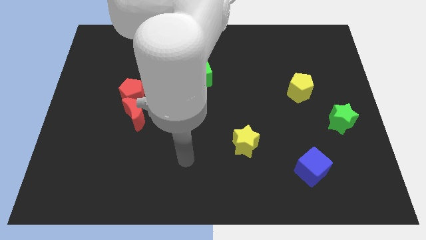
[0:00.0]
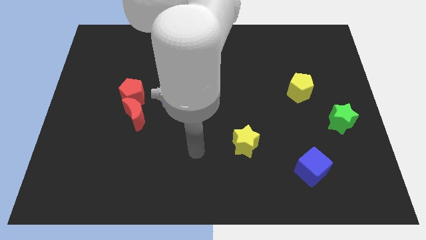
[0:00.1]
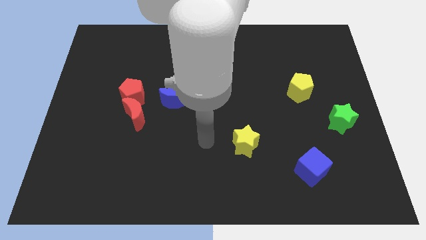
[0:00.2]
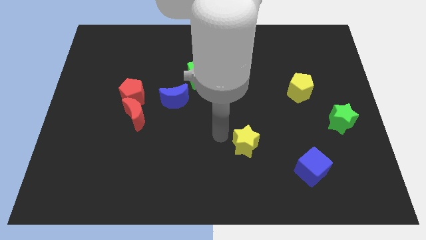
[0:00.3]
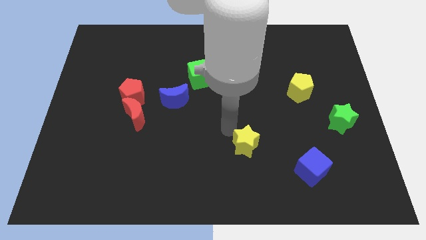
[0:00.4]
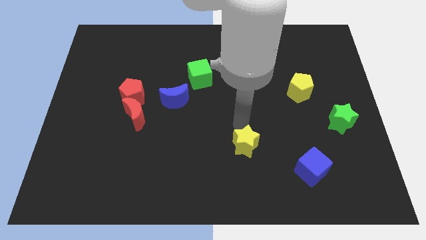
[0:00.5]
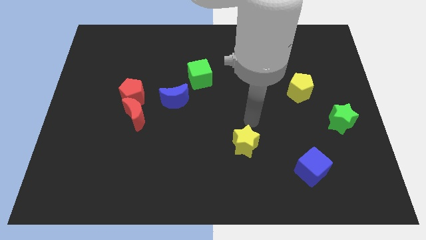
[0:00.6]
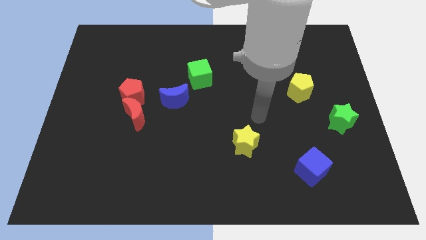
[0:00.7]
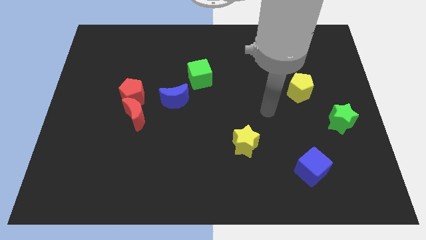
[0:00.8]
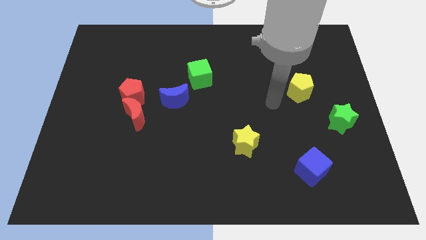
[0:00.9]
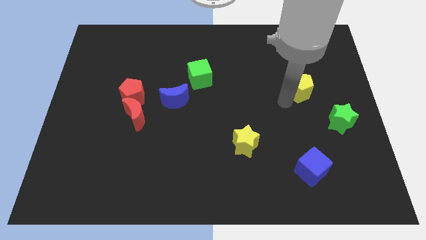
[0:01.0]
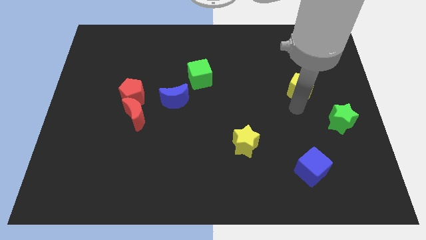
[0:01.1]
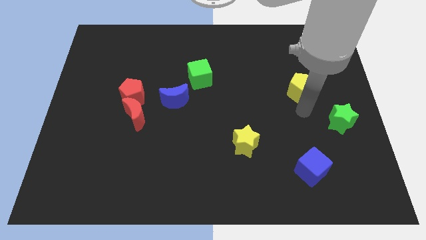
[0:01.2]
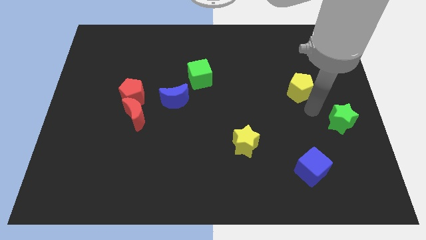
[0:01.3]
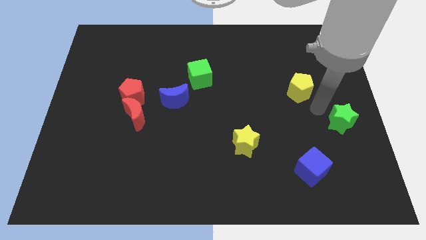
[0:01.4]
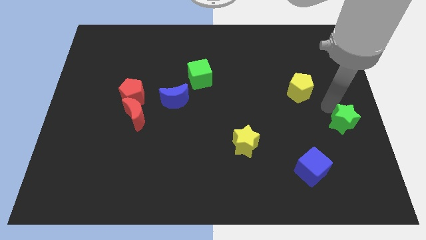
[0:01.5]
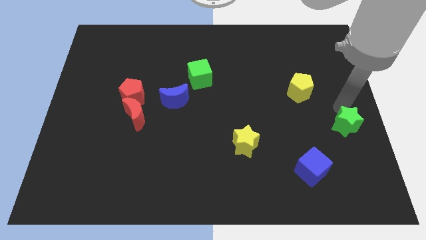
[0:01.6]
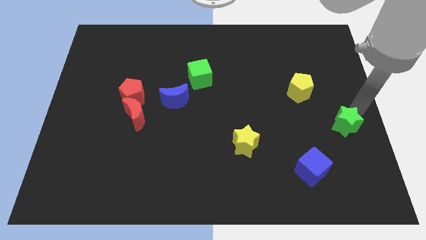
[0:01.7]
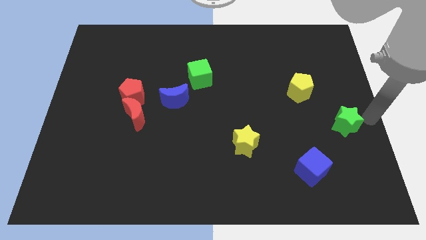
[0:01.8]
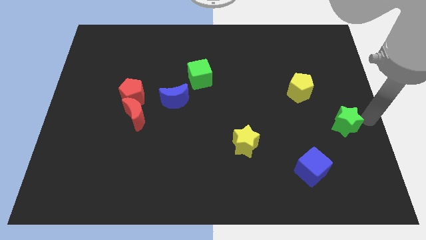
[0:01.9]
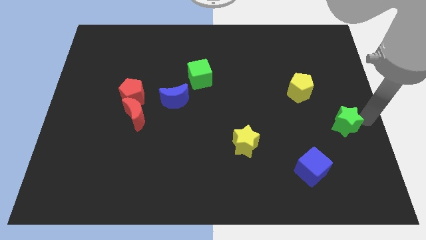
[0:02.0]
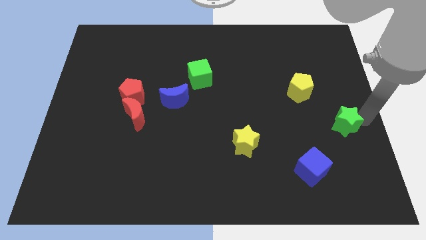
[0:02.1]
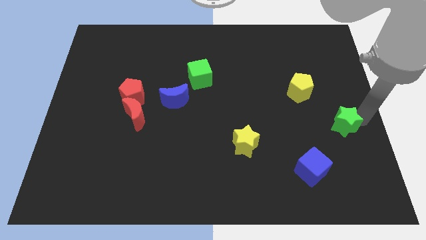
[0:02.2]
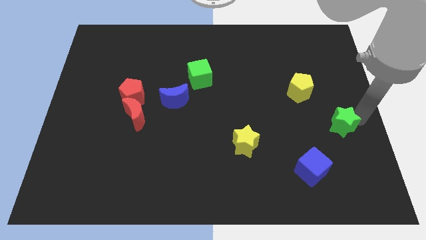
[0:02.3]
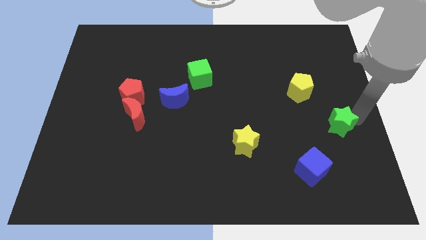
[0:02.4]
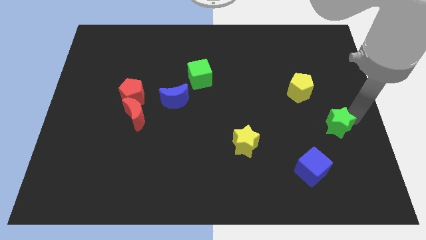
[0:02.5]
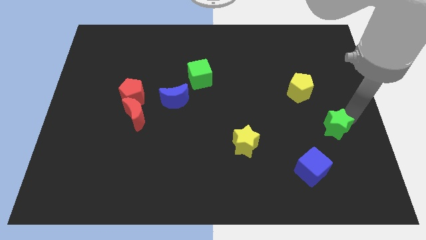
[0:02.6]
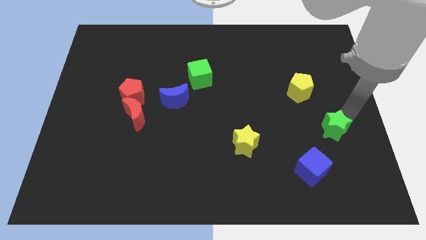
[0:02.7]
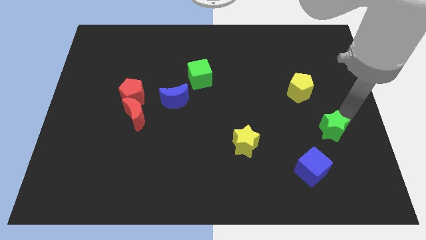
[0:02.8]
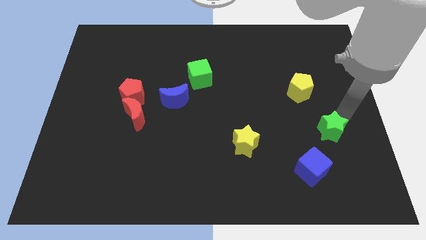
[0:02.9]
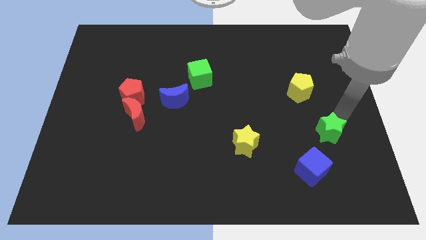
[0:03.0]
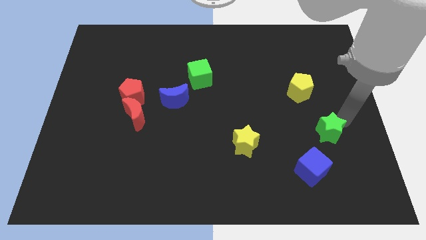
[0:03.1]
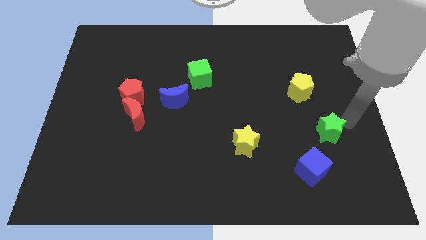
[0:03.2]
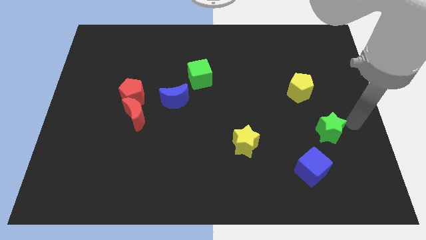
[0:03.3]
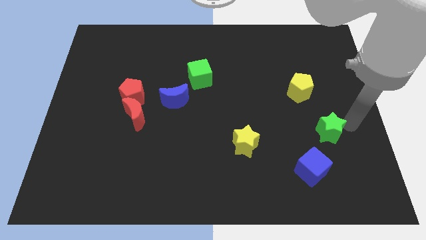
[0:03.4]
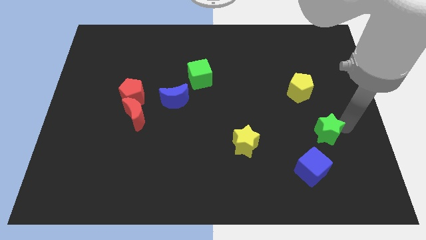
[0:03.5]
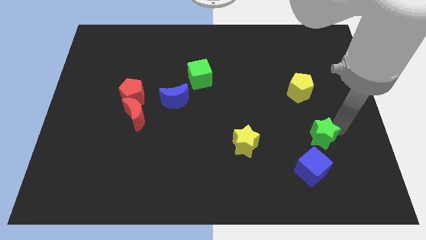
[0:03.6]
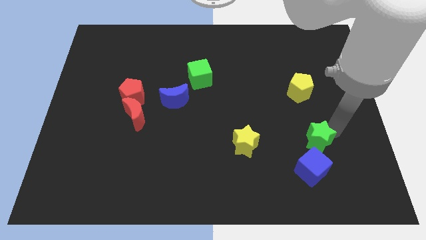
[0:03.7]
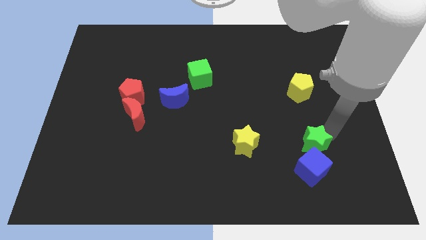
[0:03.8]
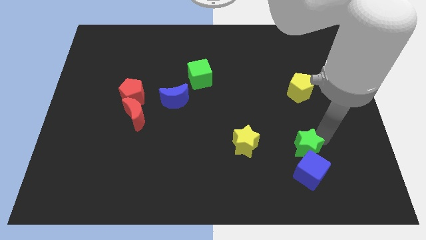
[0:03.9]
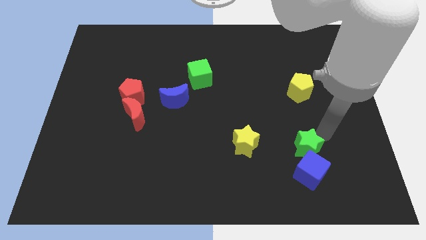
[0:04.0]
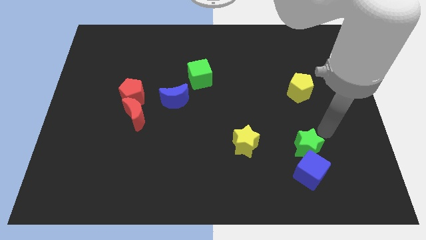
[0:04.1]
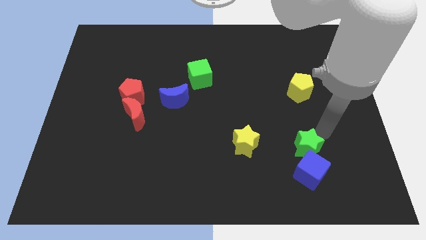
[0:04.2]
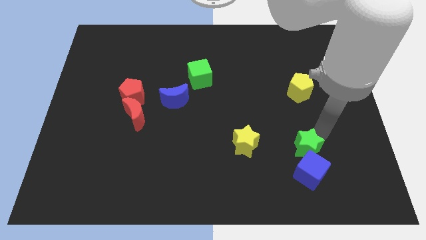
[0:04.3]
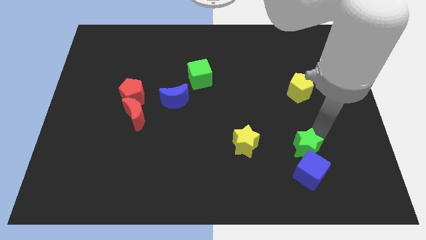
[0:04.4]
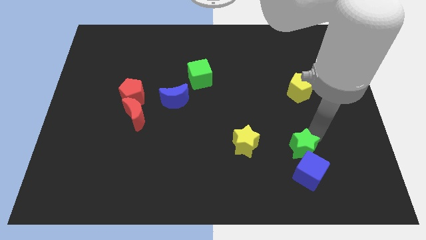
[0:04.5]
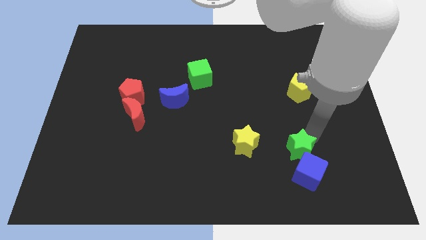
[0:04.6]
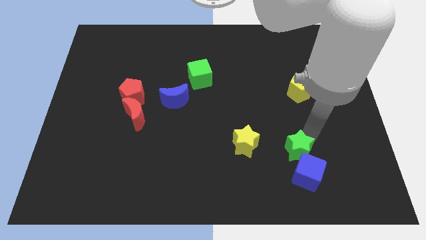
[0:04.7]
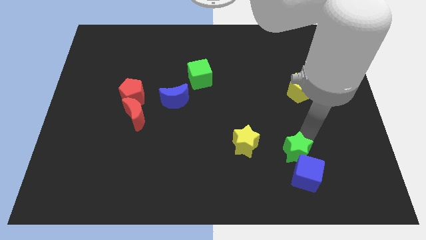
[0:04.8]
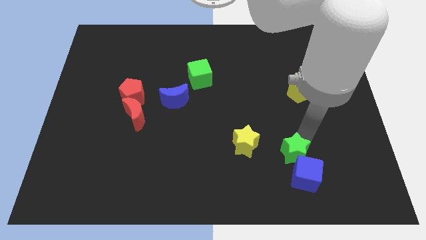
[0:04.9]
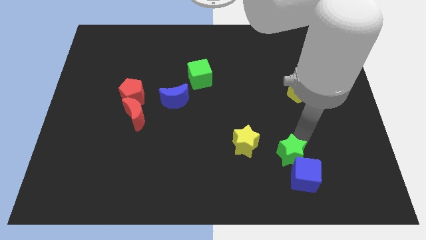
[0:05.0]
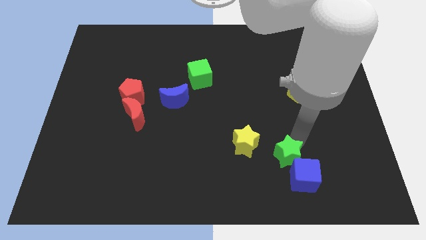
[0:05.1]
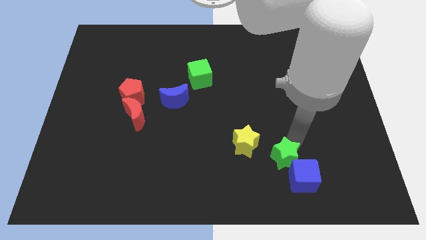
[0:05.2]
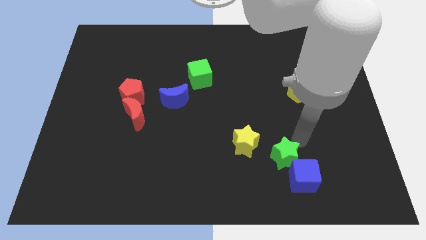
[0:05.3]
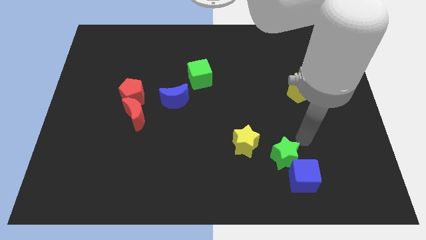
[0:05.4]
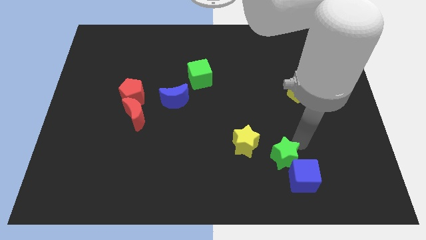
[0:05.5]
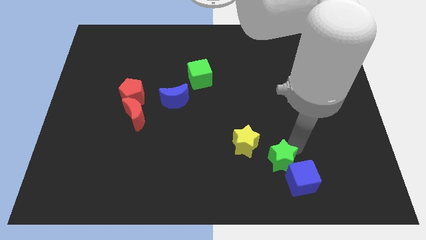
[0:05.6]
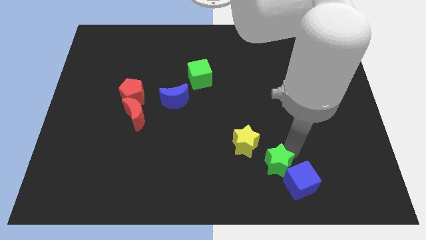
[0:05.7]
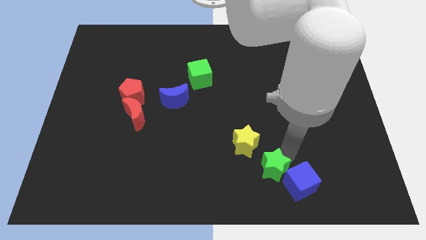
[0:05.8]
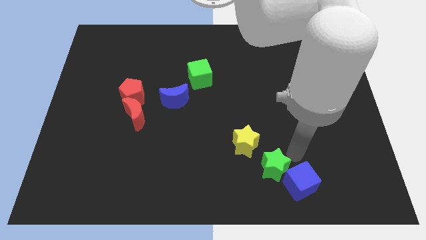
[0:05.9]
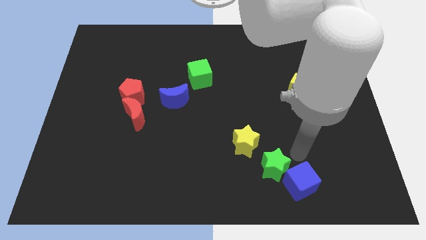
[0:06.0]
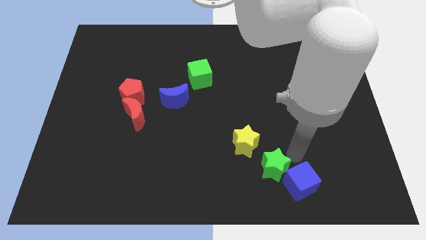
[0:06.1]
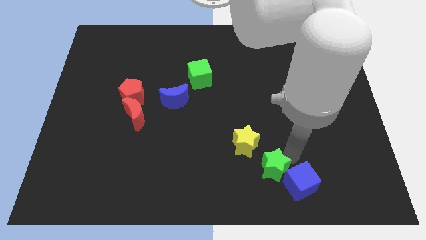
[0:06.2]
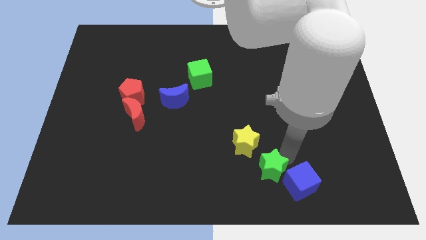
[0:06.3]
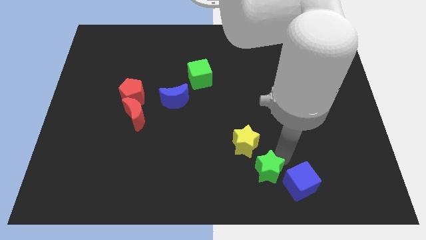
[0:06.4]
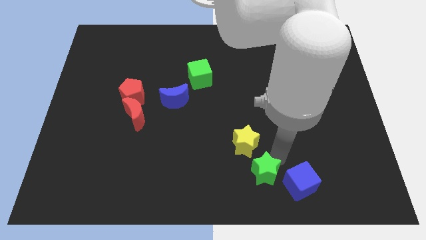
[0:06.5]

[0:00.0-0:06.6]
slide the green star to the bottom
